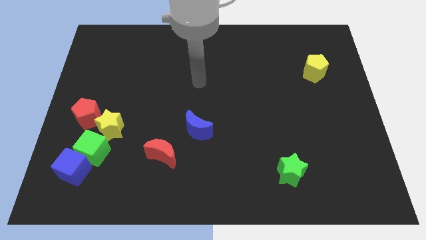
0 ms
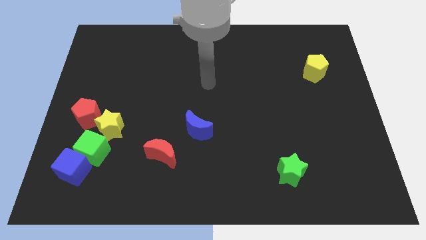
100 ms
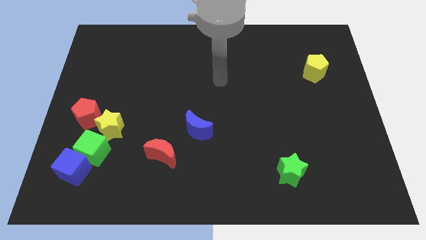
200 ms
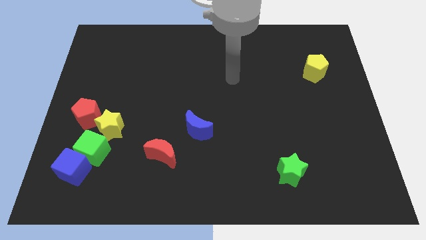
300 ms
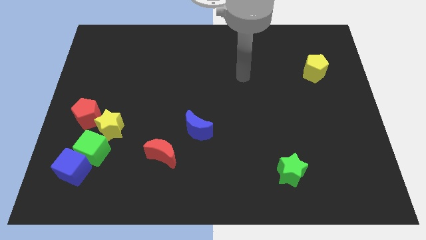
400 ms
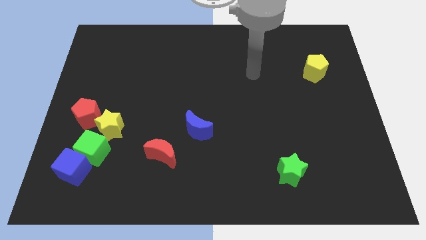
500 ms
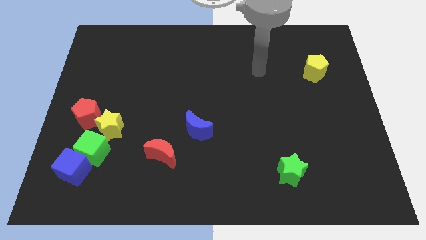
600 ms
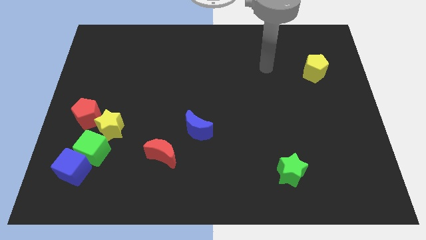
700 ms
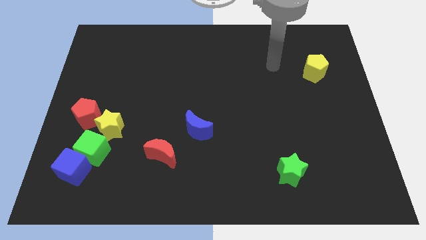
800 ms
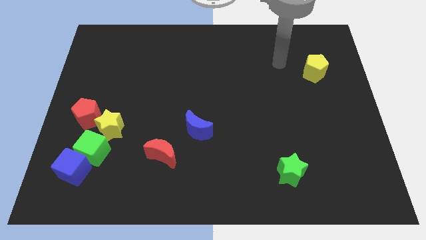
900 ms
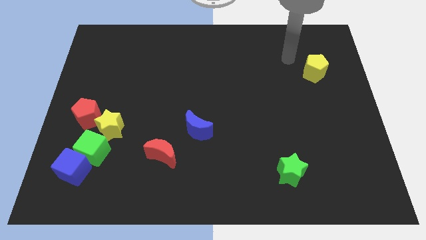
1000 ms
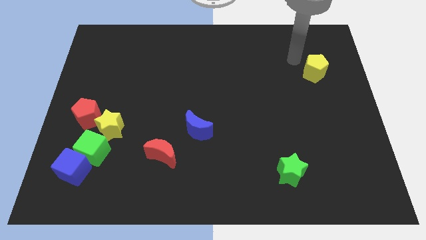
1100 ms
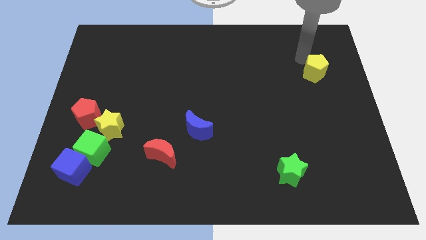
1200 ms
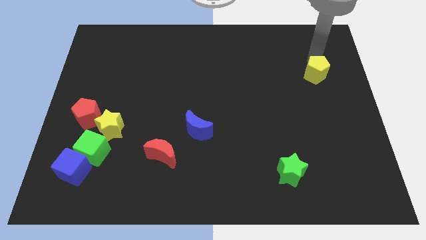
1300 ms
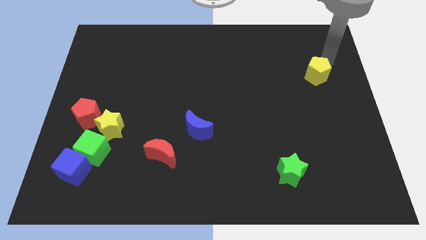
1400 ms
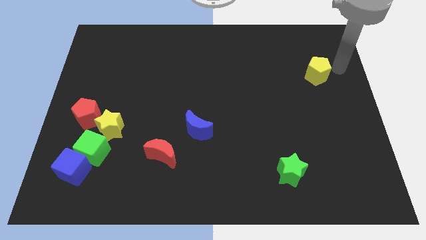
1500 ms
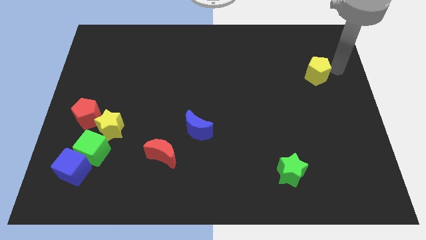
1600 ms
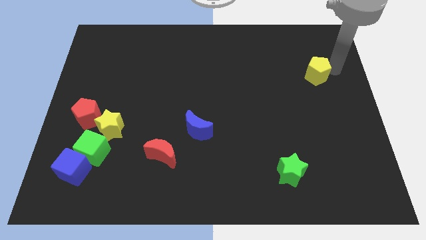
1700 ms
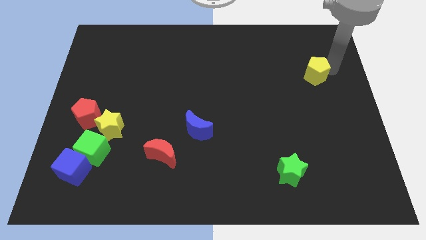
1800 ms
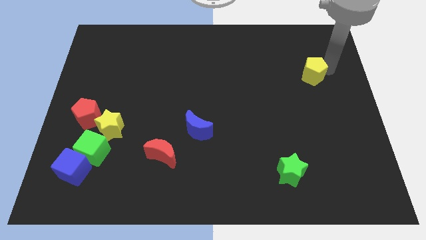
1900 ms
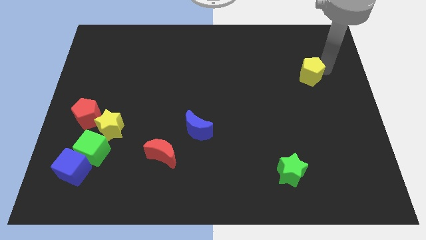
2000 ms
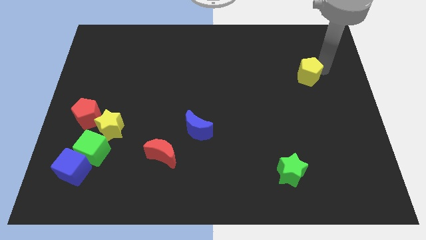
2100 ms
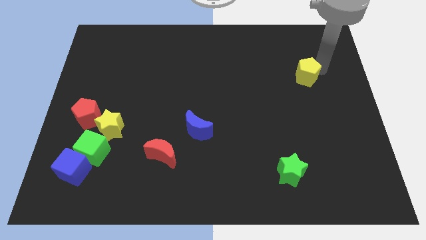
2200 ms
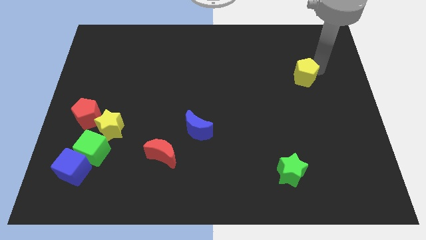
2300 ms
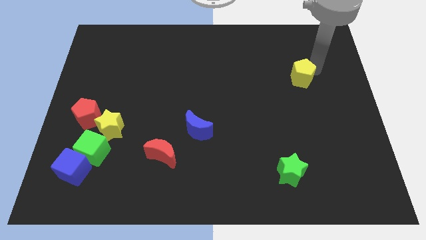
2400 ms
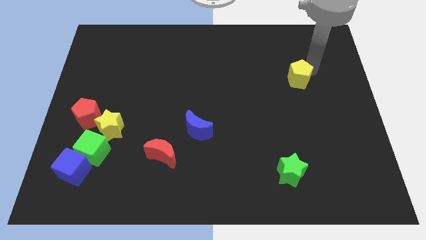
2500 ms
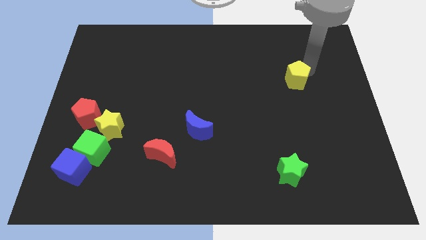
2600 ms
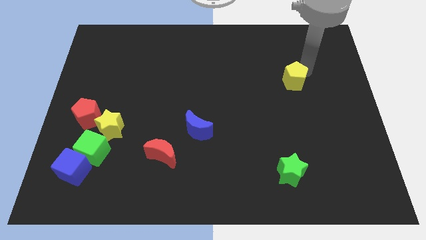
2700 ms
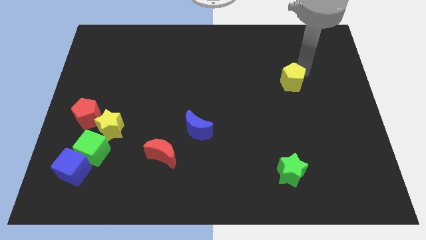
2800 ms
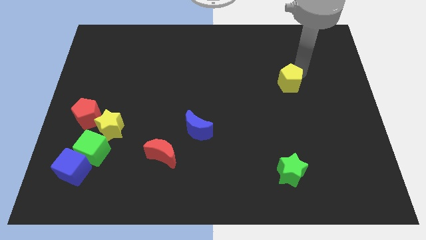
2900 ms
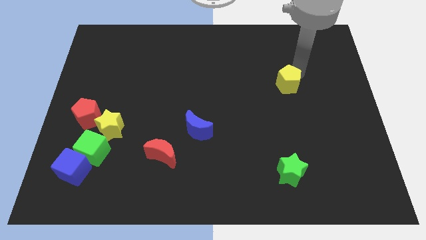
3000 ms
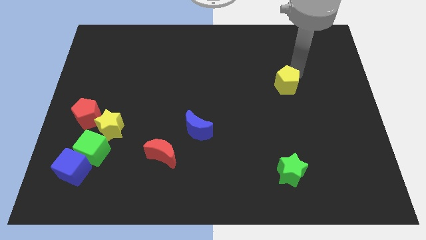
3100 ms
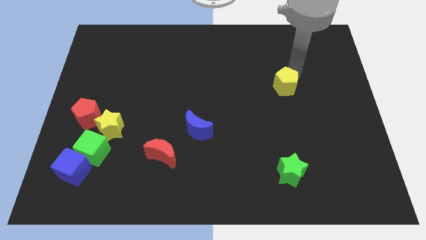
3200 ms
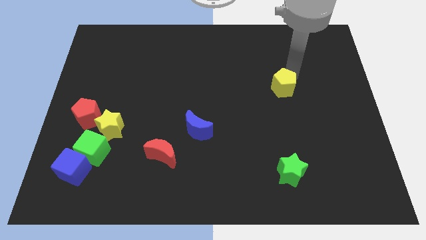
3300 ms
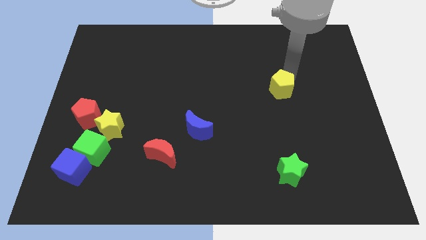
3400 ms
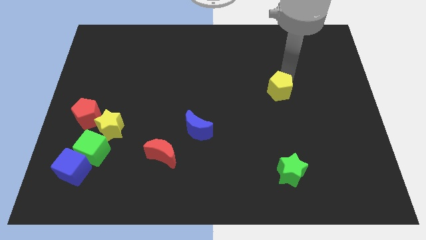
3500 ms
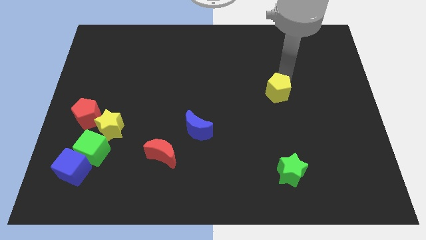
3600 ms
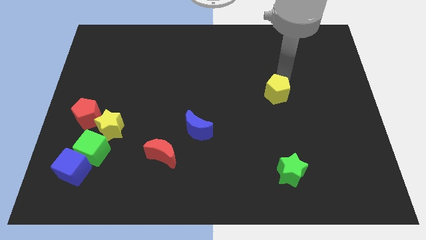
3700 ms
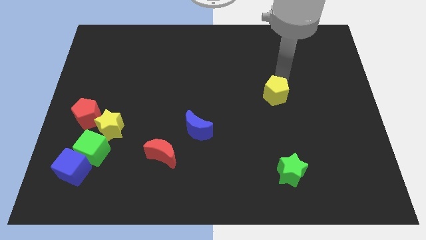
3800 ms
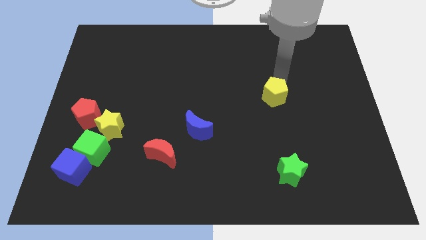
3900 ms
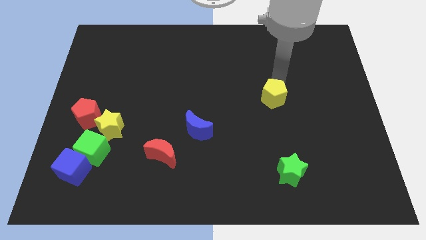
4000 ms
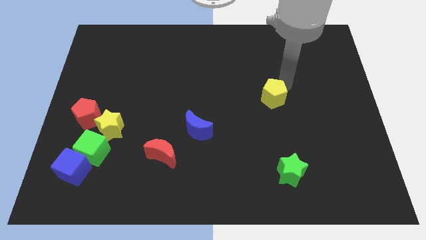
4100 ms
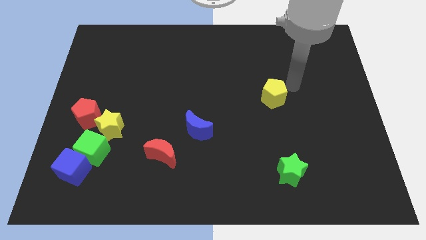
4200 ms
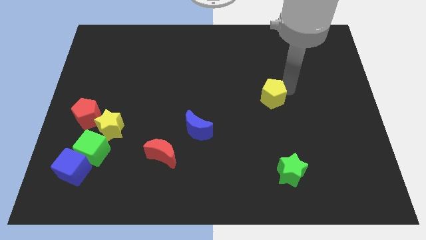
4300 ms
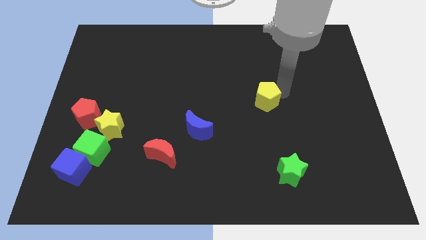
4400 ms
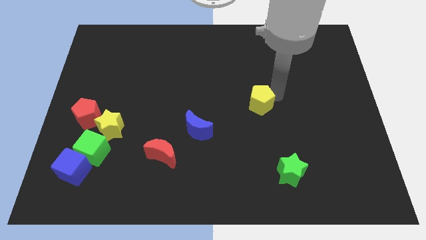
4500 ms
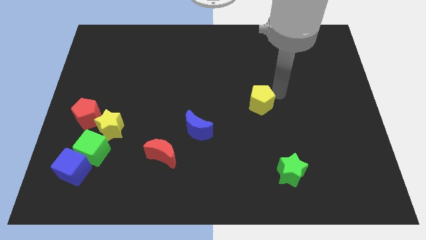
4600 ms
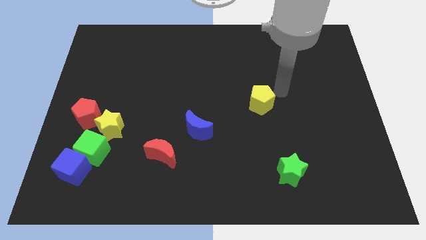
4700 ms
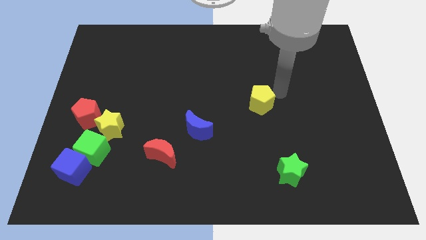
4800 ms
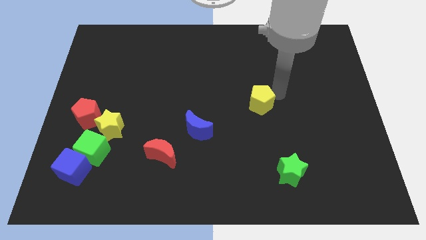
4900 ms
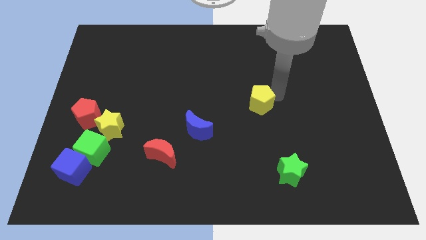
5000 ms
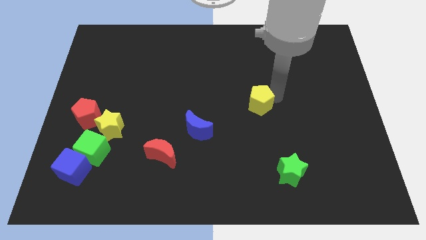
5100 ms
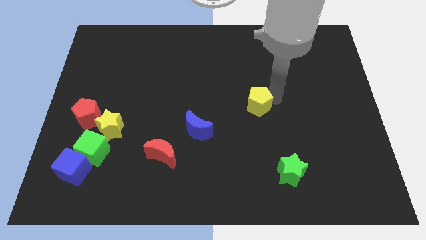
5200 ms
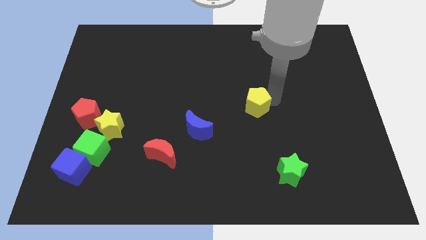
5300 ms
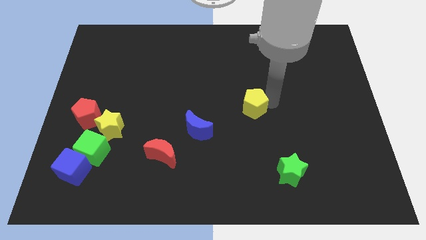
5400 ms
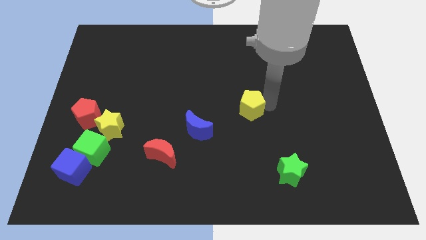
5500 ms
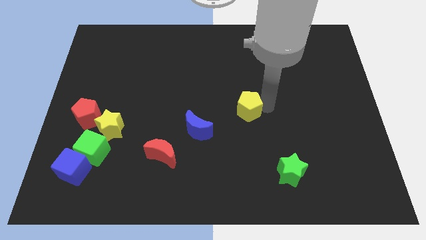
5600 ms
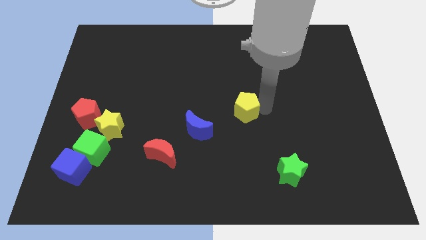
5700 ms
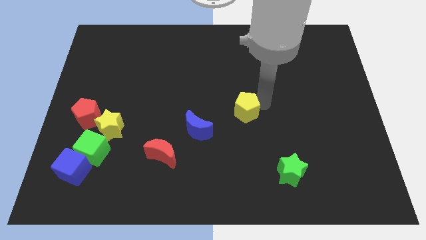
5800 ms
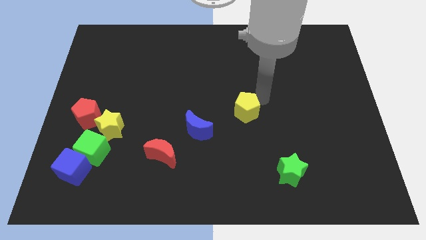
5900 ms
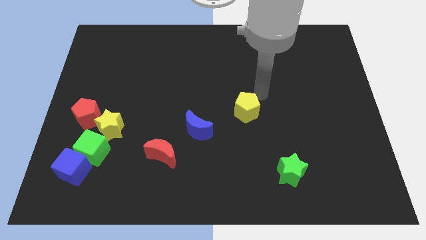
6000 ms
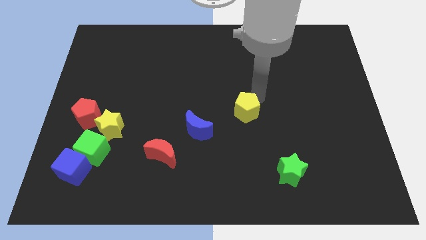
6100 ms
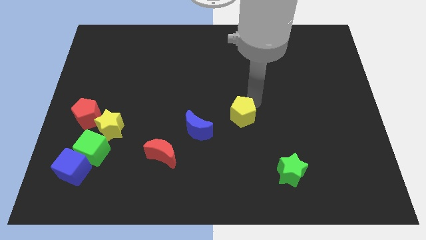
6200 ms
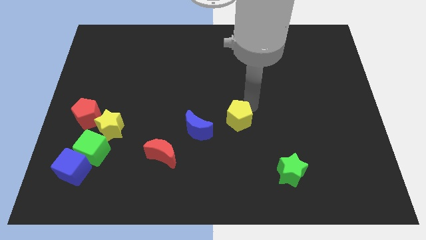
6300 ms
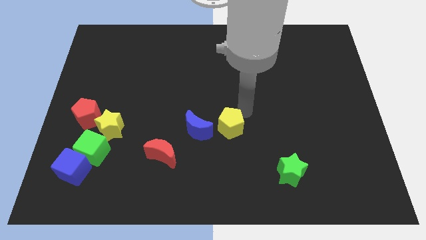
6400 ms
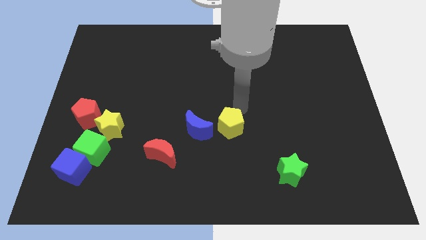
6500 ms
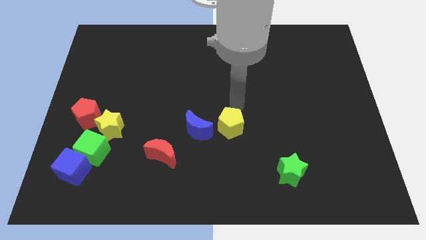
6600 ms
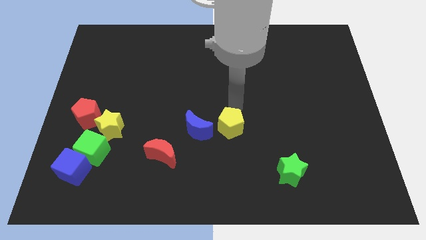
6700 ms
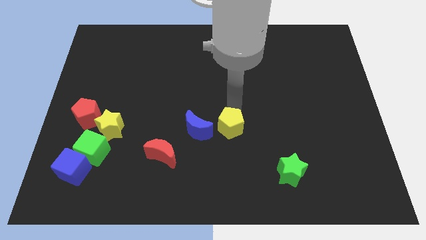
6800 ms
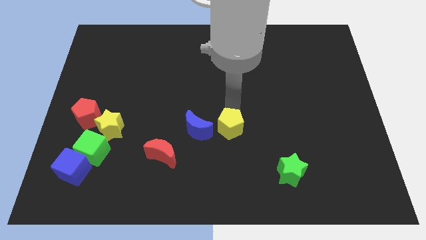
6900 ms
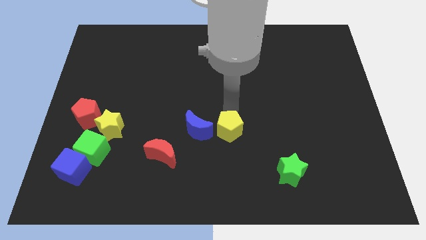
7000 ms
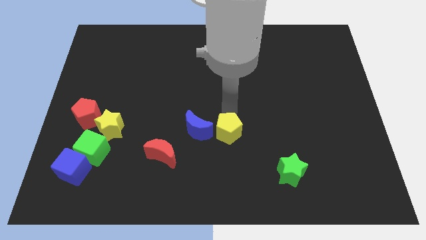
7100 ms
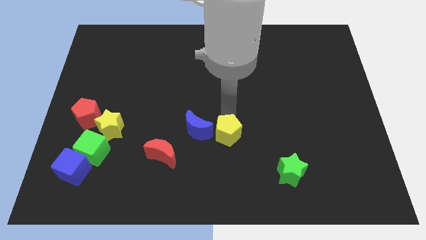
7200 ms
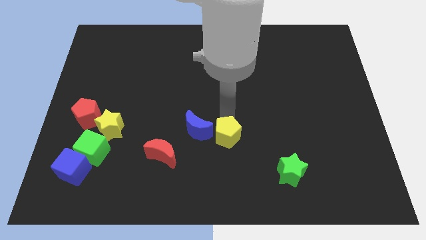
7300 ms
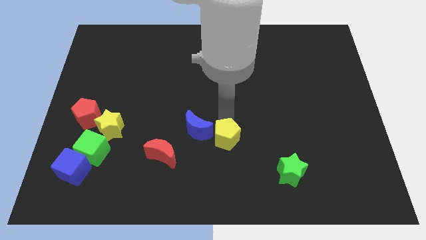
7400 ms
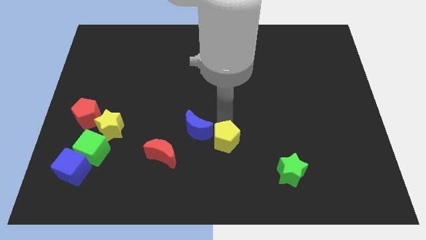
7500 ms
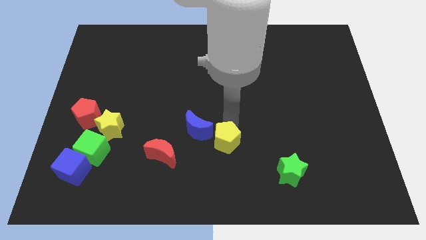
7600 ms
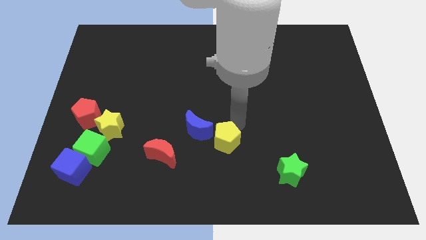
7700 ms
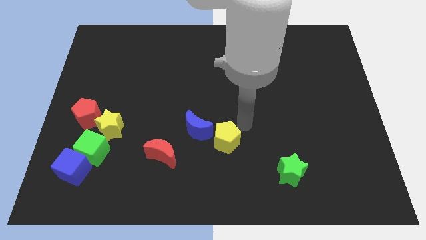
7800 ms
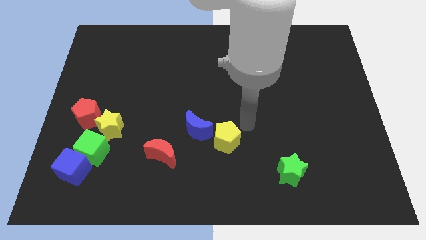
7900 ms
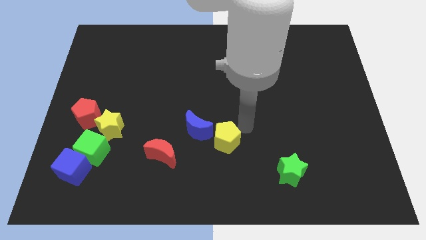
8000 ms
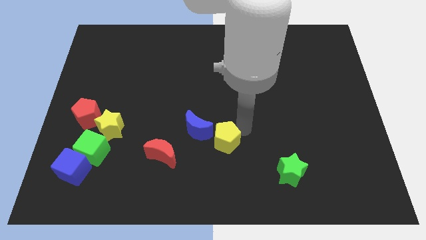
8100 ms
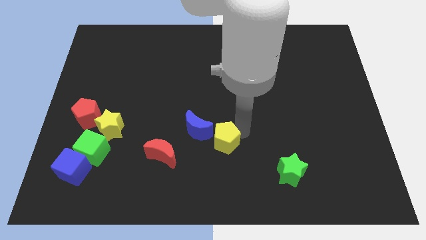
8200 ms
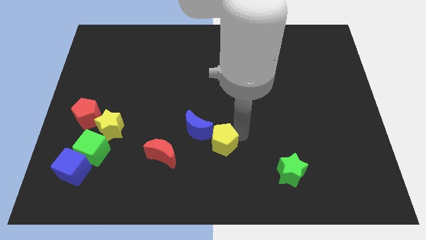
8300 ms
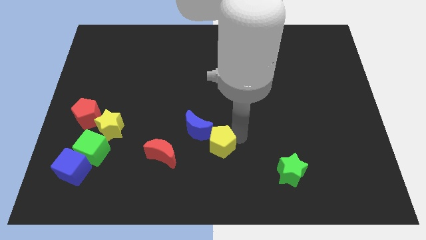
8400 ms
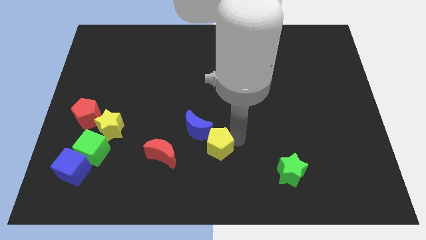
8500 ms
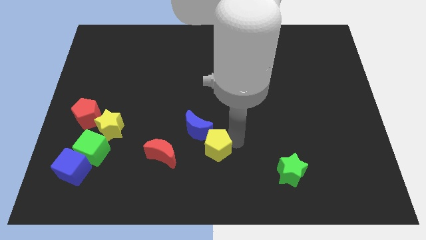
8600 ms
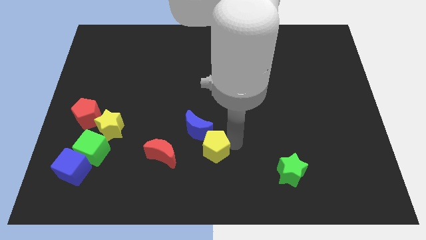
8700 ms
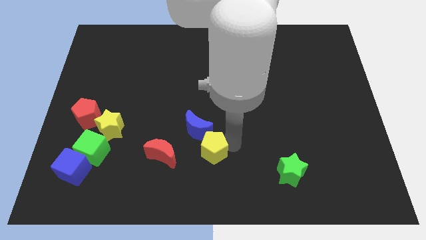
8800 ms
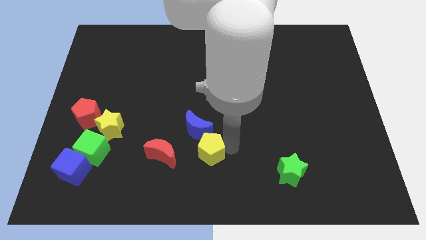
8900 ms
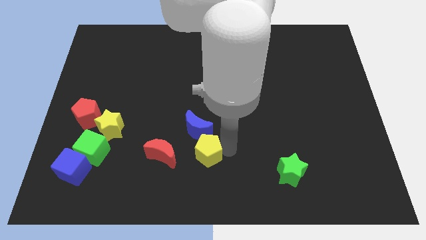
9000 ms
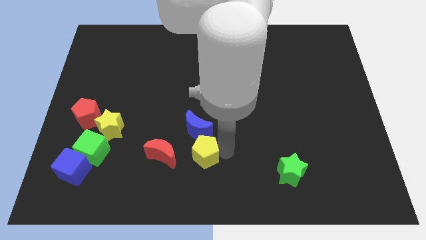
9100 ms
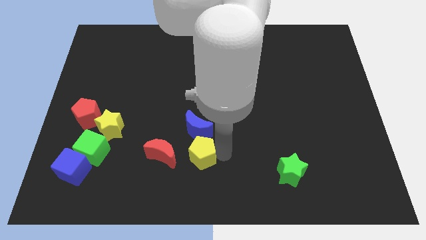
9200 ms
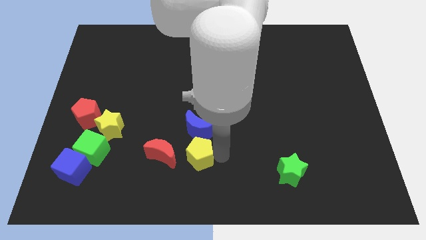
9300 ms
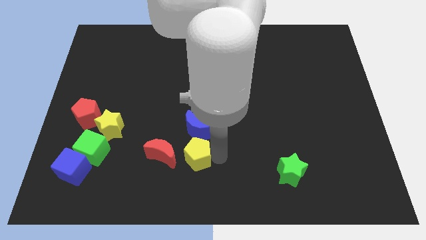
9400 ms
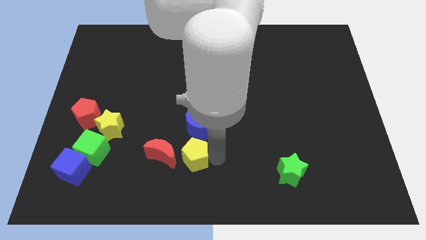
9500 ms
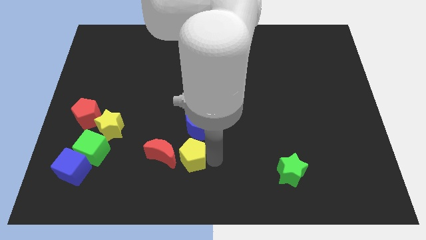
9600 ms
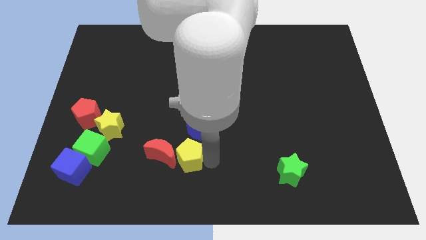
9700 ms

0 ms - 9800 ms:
push the yellow pentagon close to the red moon
